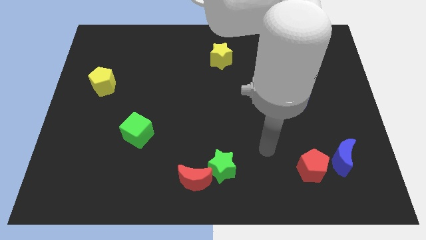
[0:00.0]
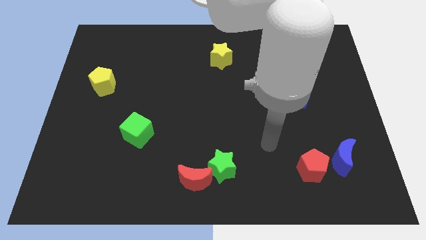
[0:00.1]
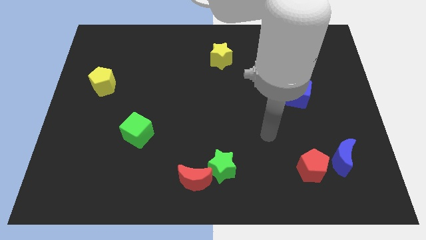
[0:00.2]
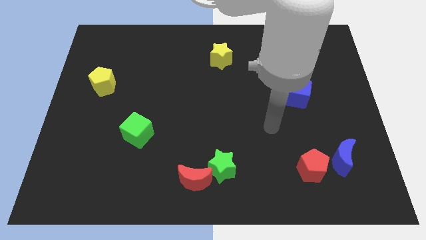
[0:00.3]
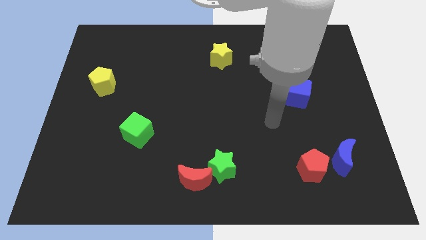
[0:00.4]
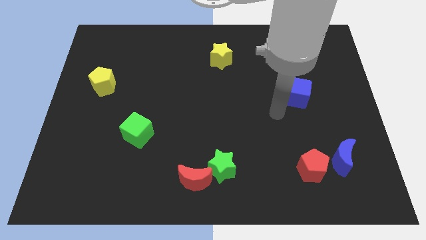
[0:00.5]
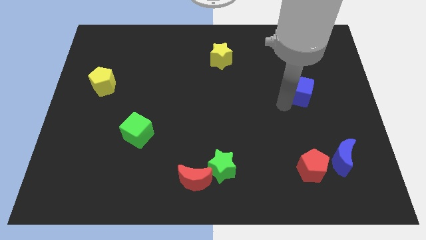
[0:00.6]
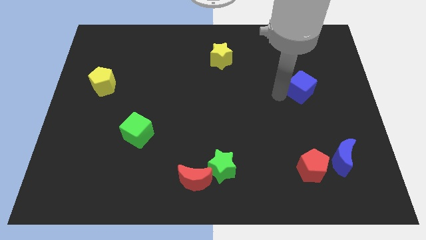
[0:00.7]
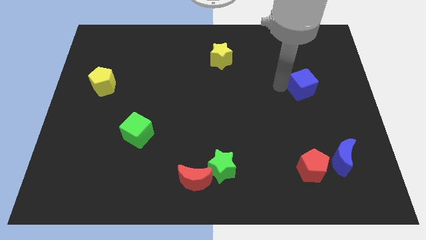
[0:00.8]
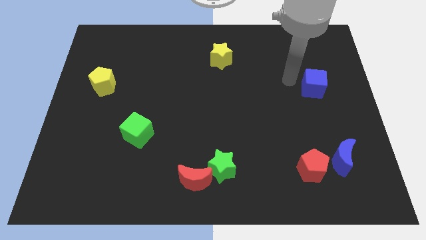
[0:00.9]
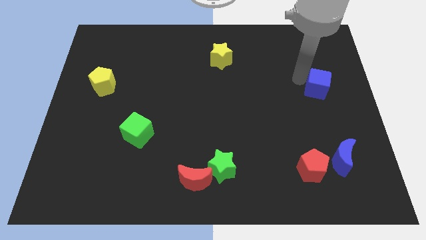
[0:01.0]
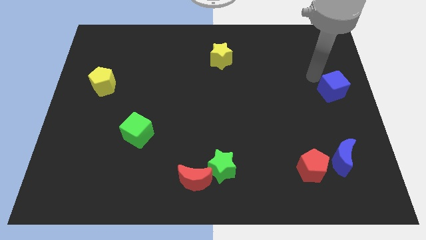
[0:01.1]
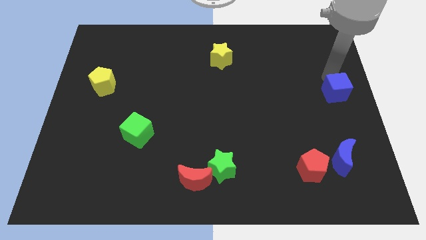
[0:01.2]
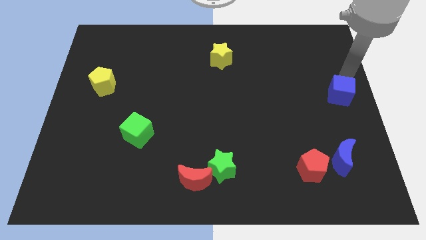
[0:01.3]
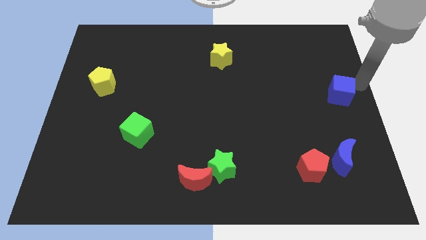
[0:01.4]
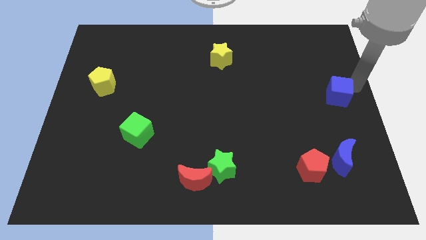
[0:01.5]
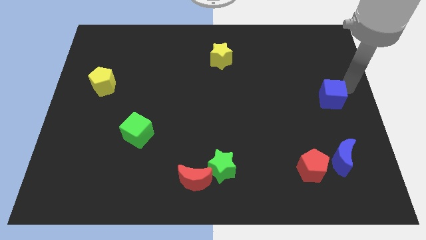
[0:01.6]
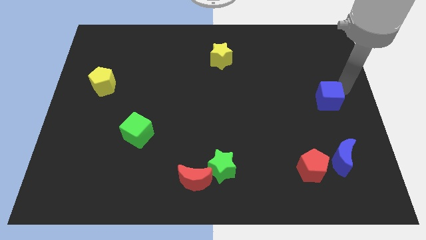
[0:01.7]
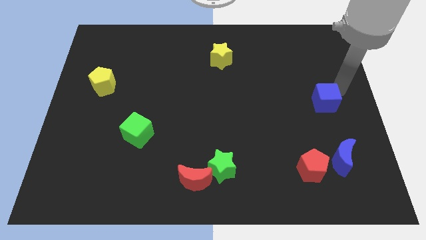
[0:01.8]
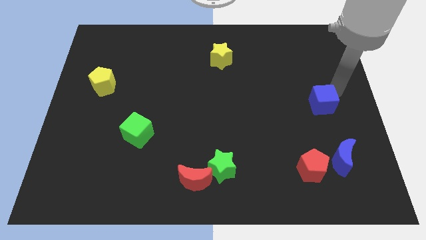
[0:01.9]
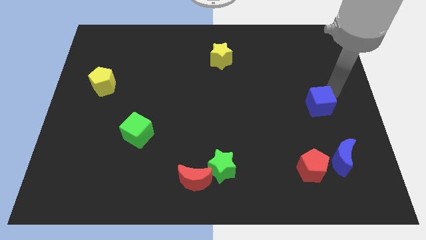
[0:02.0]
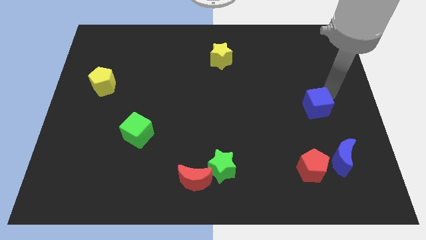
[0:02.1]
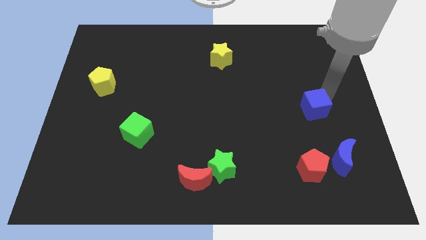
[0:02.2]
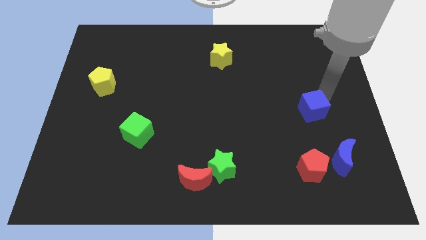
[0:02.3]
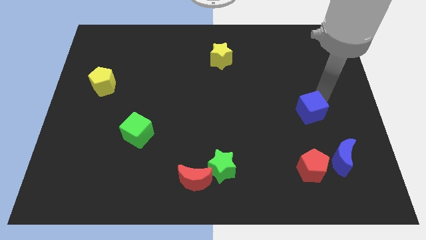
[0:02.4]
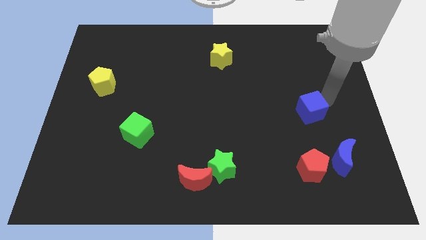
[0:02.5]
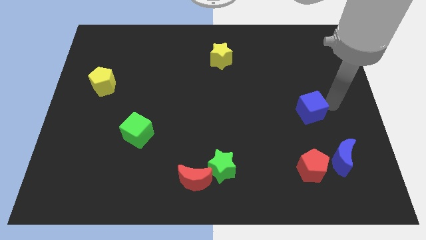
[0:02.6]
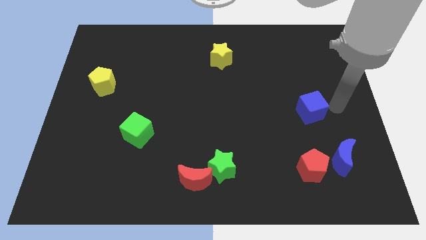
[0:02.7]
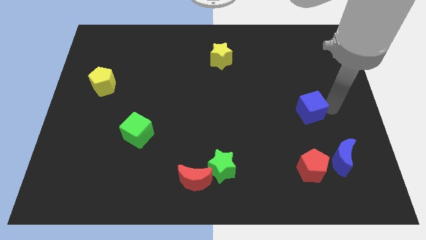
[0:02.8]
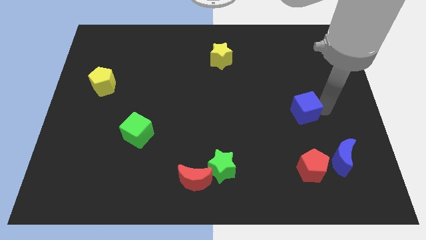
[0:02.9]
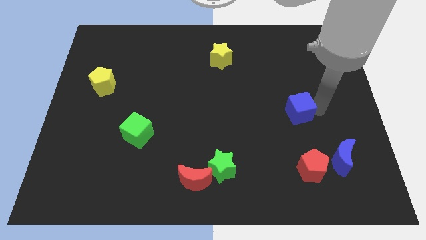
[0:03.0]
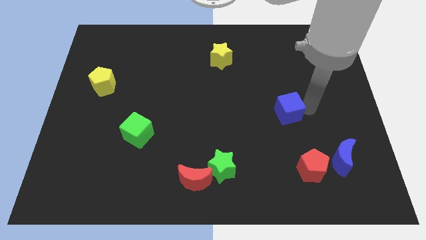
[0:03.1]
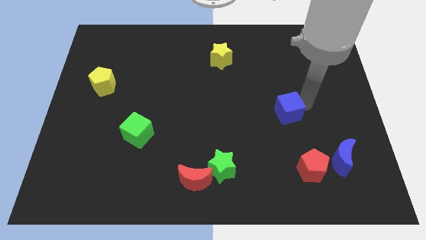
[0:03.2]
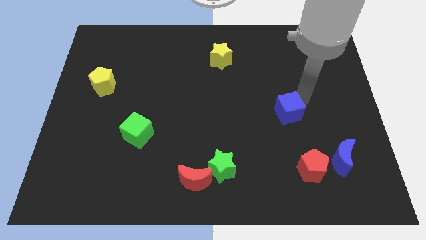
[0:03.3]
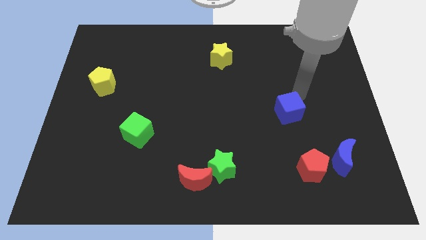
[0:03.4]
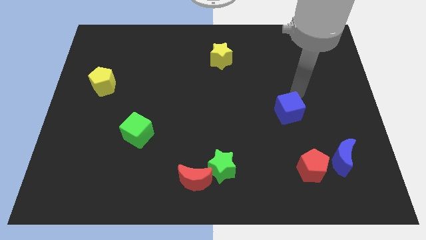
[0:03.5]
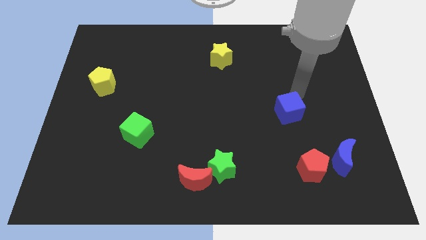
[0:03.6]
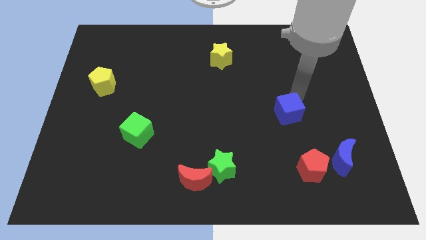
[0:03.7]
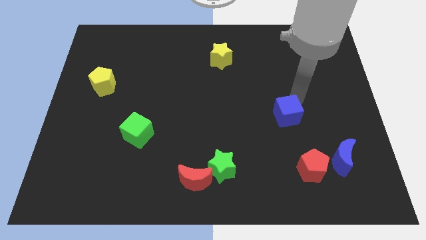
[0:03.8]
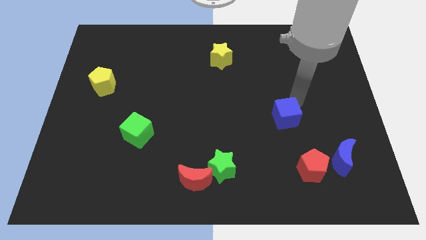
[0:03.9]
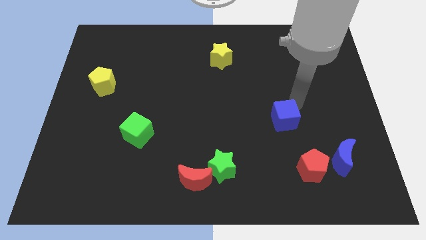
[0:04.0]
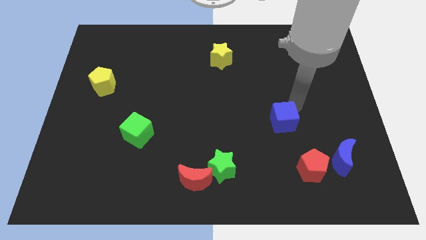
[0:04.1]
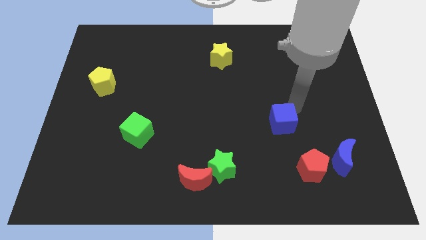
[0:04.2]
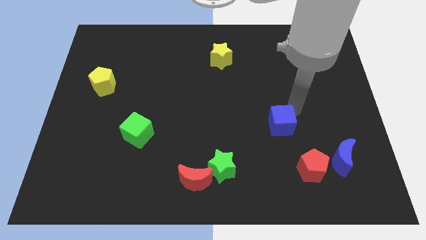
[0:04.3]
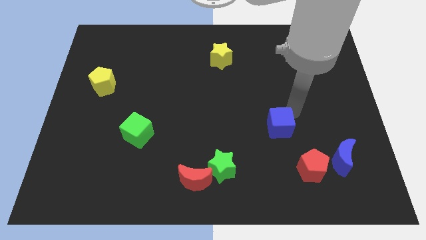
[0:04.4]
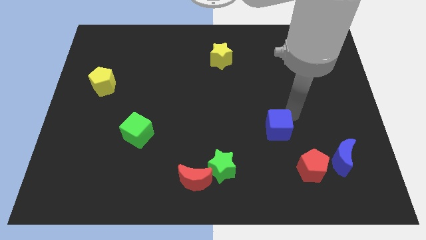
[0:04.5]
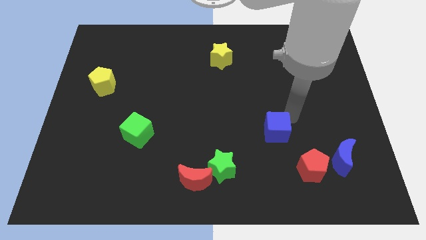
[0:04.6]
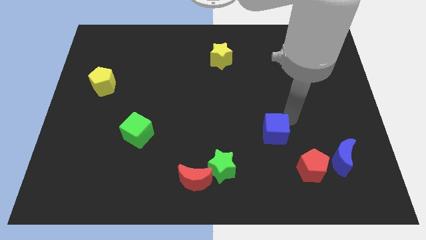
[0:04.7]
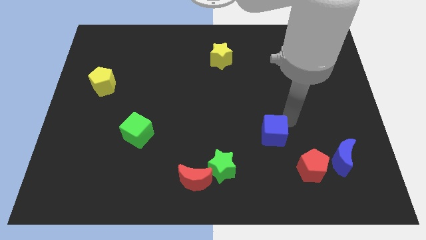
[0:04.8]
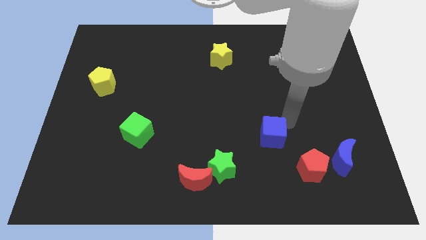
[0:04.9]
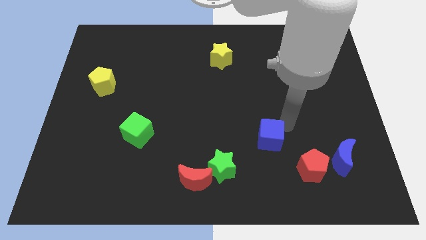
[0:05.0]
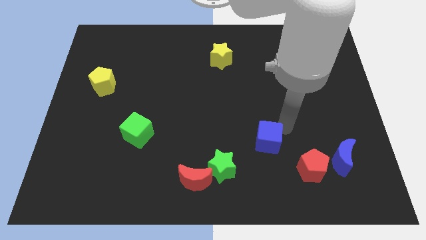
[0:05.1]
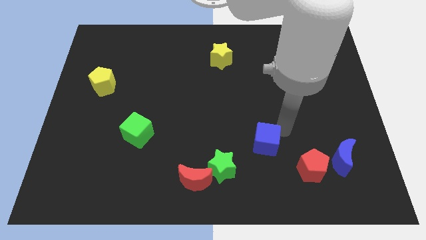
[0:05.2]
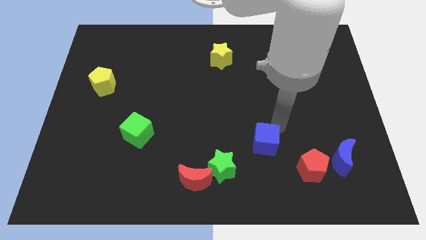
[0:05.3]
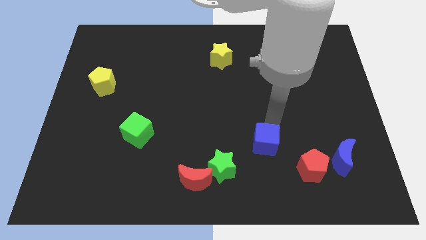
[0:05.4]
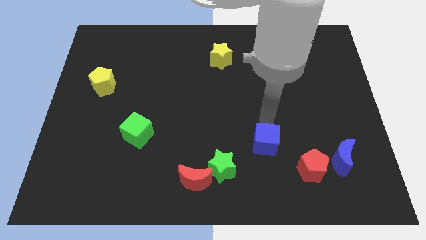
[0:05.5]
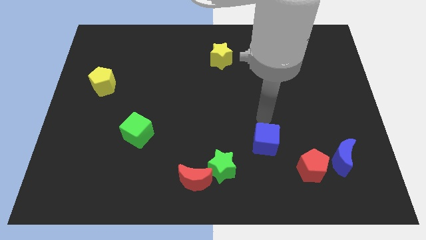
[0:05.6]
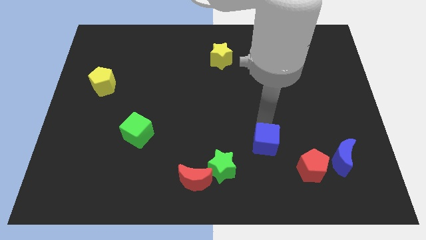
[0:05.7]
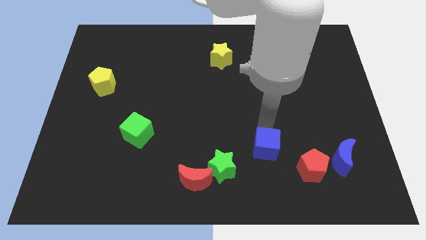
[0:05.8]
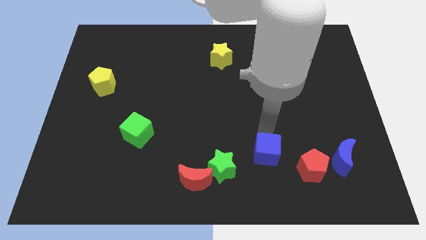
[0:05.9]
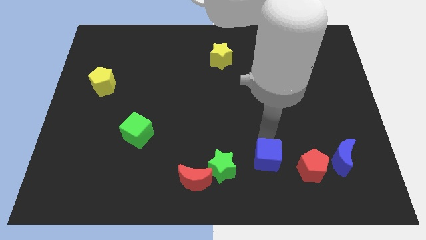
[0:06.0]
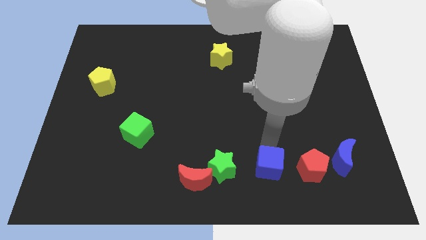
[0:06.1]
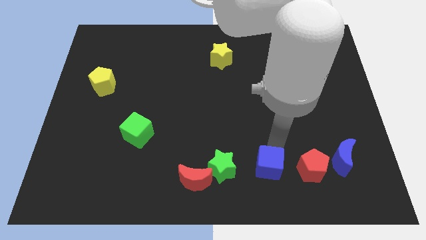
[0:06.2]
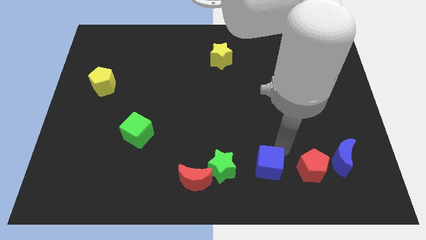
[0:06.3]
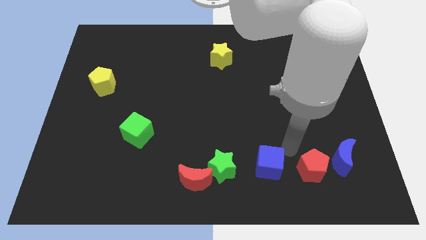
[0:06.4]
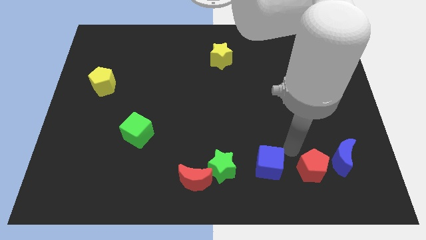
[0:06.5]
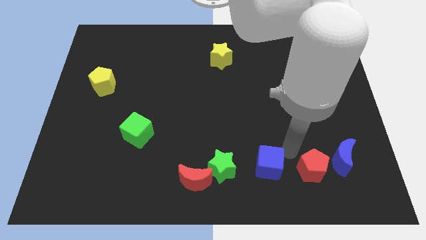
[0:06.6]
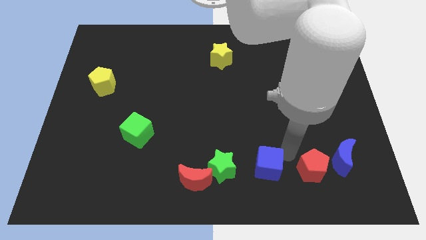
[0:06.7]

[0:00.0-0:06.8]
slide the blue cube right of the red moon
